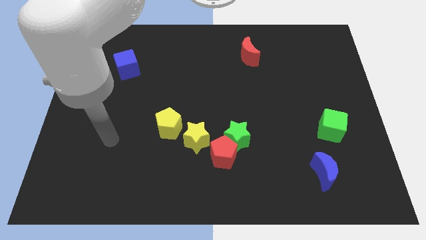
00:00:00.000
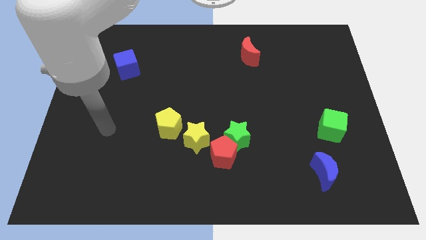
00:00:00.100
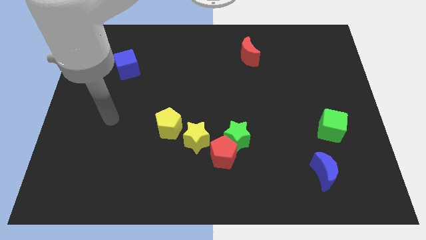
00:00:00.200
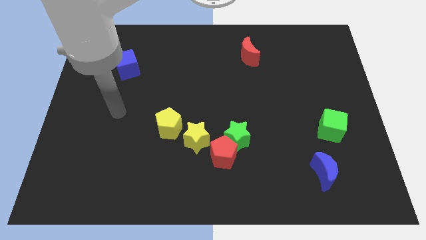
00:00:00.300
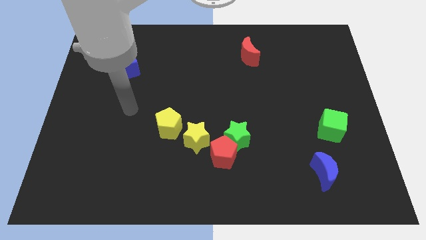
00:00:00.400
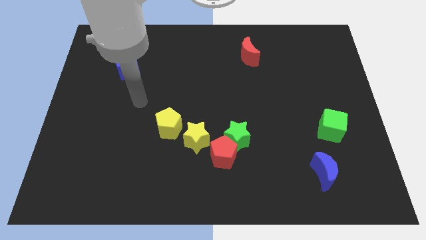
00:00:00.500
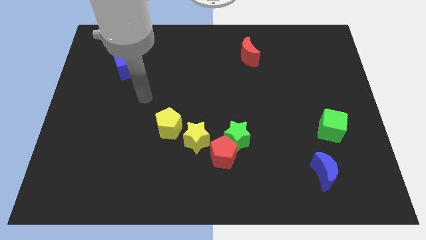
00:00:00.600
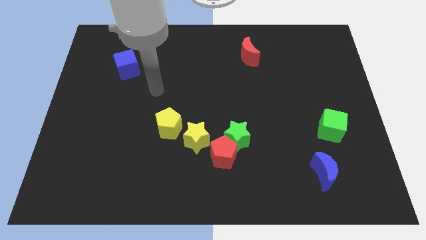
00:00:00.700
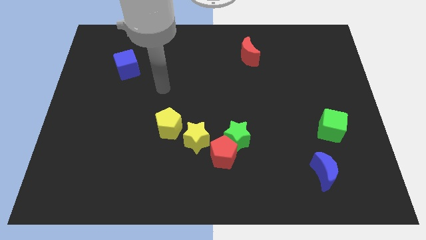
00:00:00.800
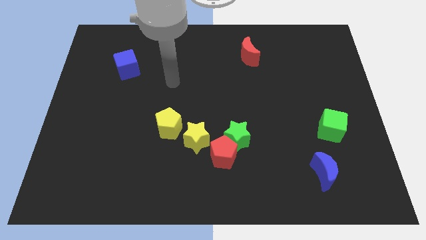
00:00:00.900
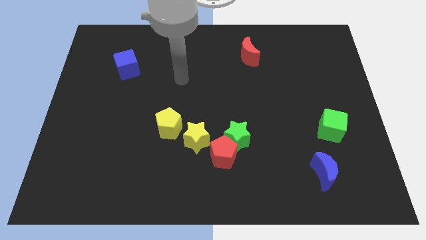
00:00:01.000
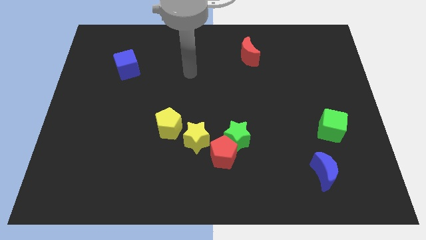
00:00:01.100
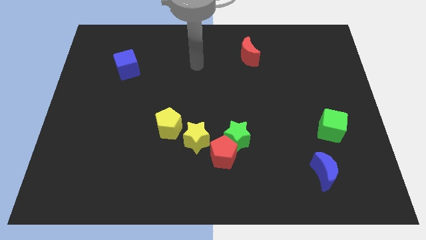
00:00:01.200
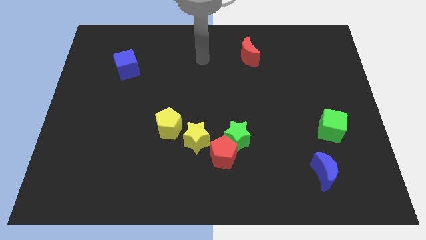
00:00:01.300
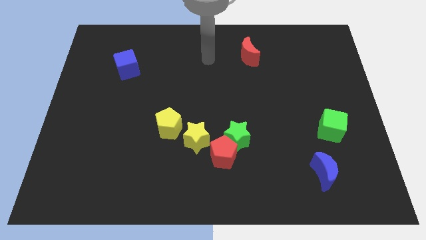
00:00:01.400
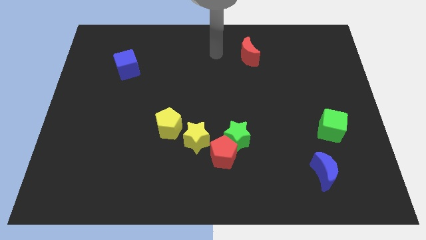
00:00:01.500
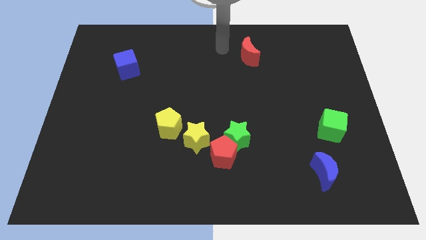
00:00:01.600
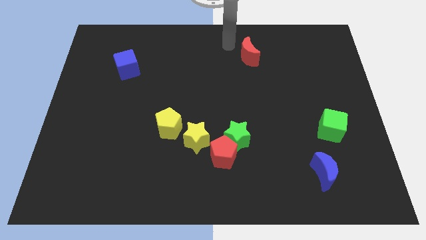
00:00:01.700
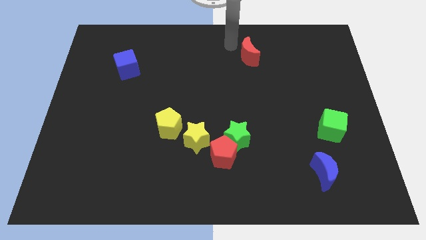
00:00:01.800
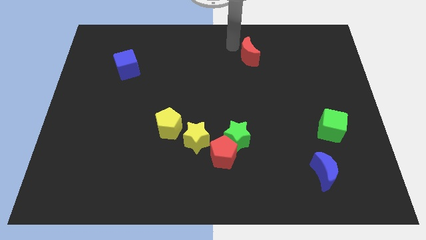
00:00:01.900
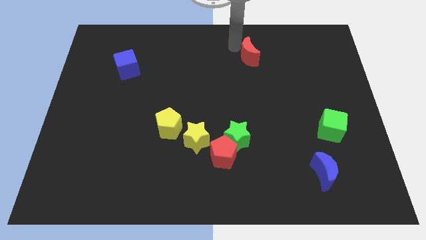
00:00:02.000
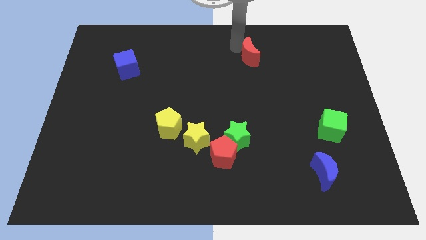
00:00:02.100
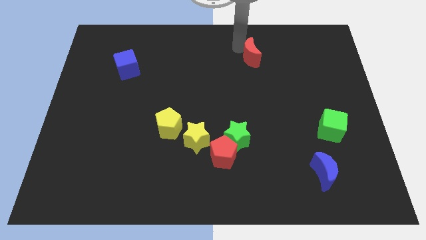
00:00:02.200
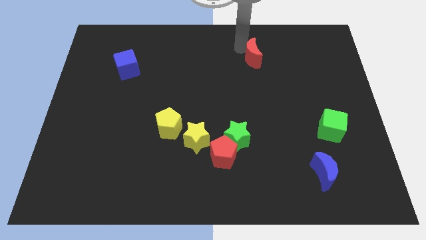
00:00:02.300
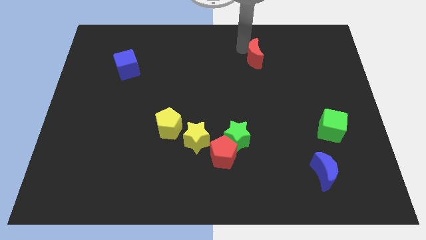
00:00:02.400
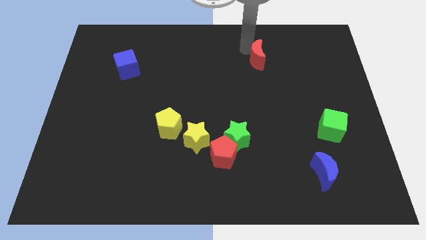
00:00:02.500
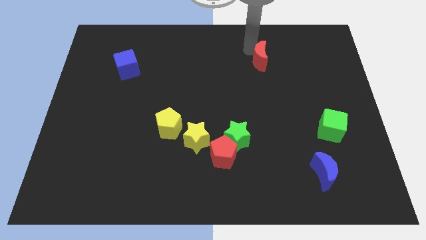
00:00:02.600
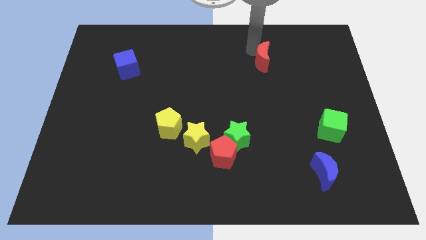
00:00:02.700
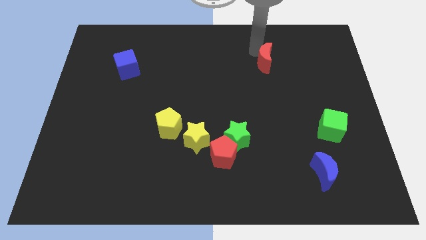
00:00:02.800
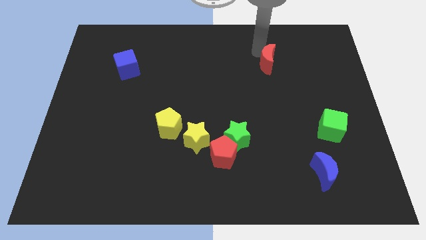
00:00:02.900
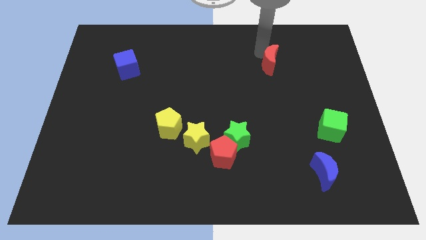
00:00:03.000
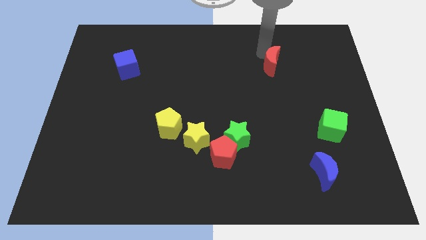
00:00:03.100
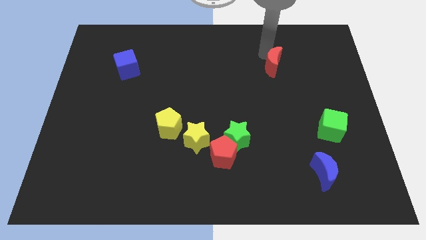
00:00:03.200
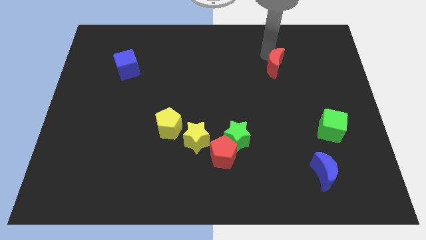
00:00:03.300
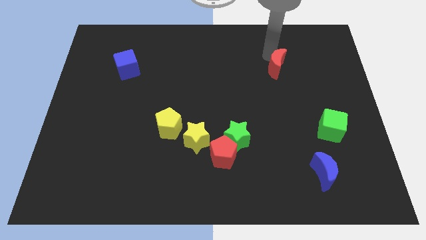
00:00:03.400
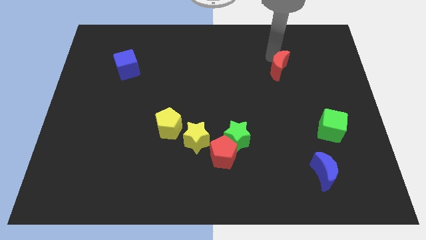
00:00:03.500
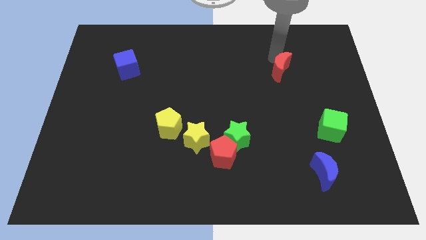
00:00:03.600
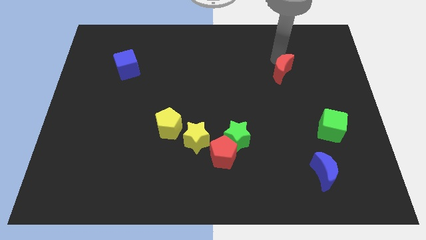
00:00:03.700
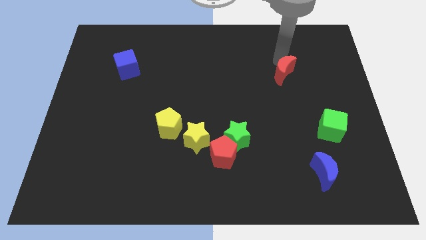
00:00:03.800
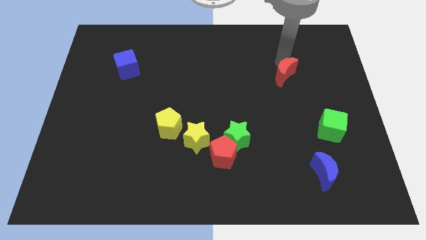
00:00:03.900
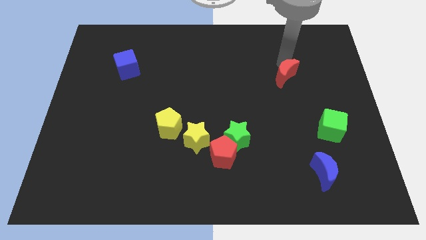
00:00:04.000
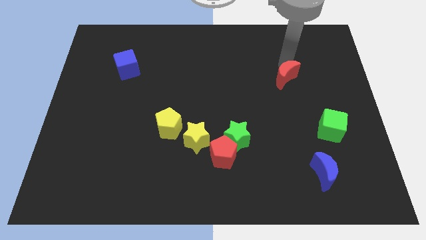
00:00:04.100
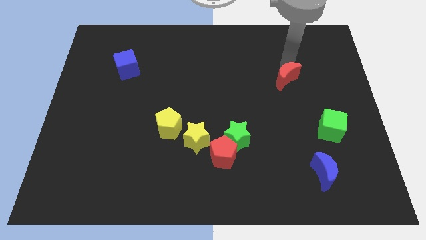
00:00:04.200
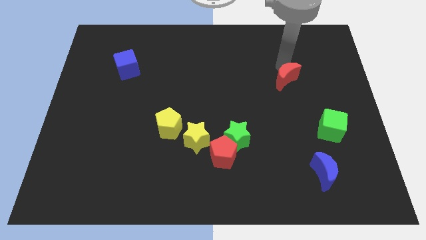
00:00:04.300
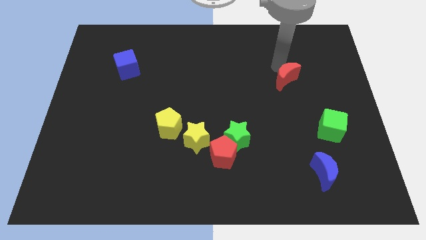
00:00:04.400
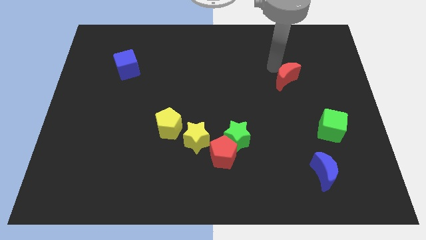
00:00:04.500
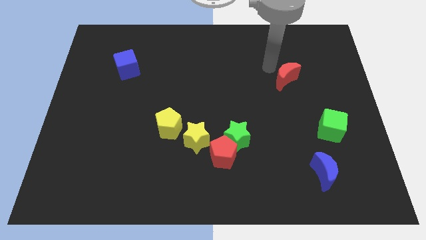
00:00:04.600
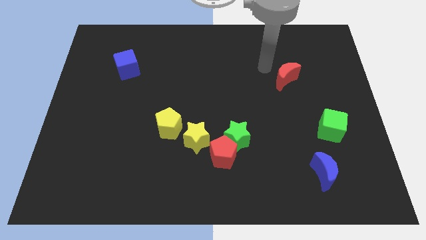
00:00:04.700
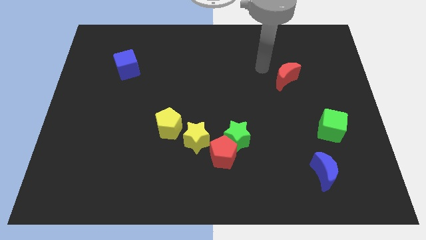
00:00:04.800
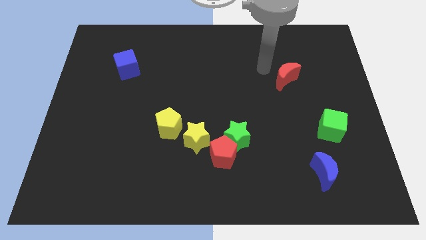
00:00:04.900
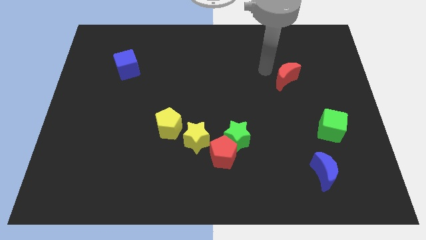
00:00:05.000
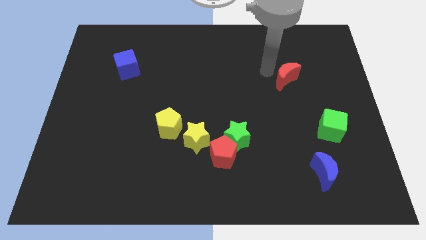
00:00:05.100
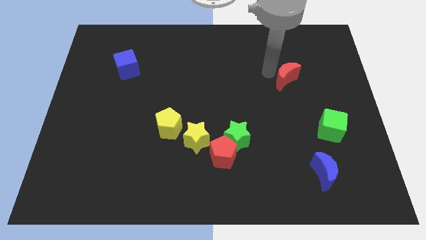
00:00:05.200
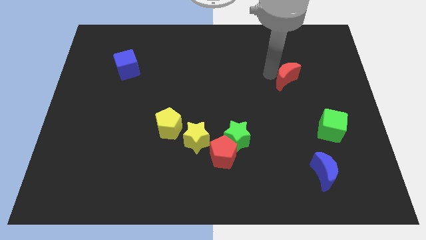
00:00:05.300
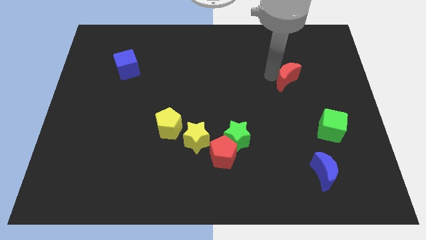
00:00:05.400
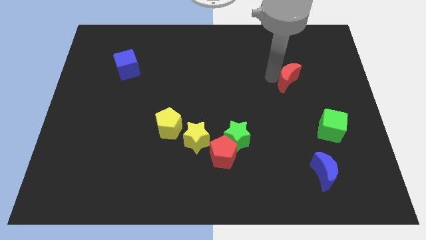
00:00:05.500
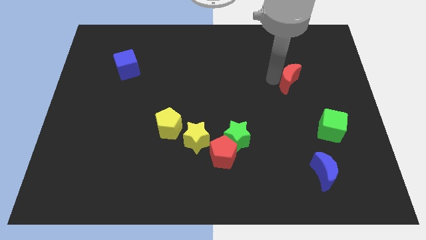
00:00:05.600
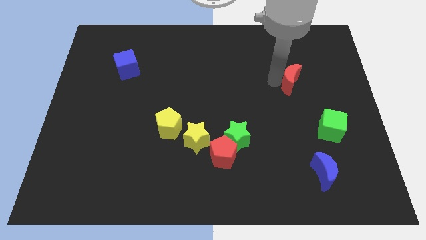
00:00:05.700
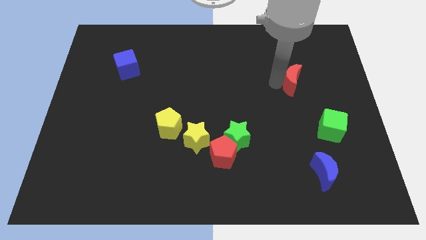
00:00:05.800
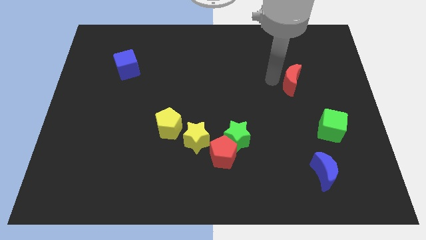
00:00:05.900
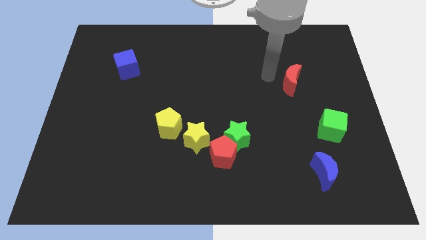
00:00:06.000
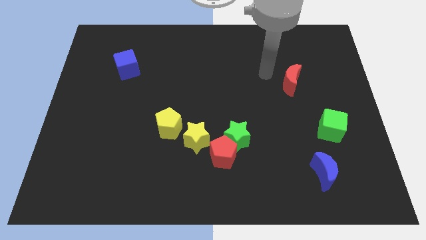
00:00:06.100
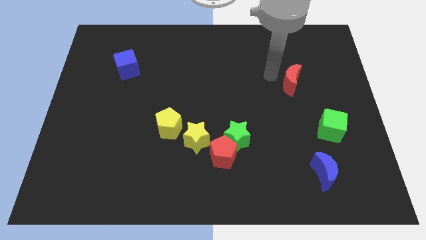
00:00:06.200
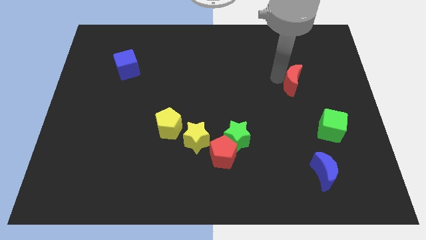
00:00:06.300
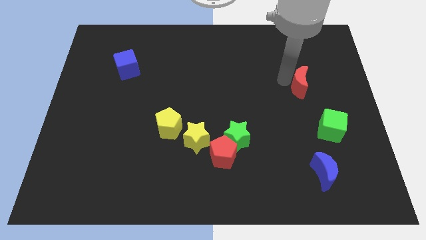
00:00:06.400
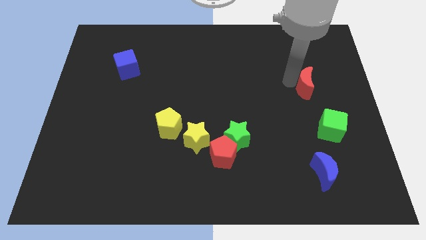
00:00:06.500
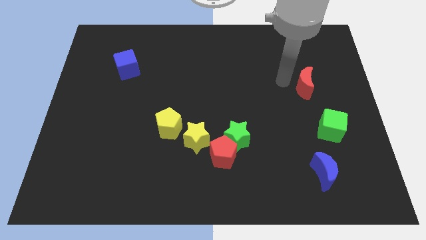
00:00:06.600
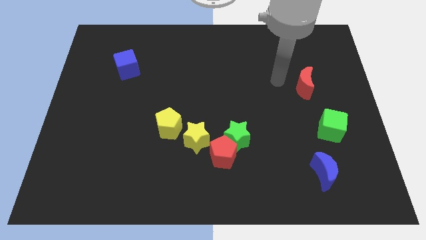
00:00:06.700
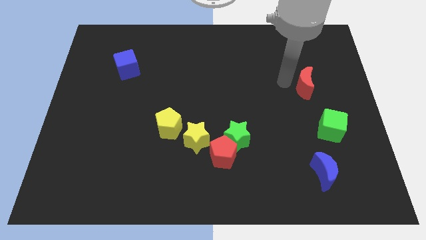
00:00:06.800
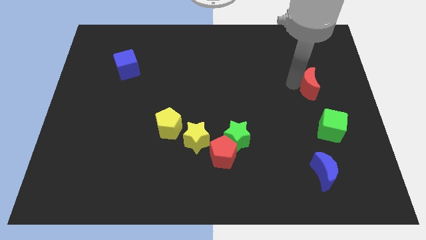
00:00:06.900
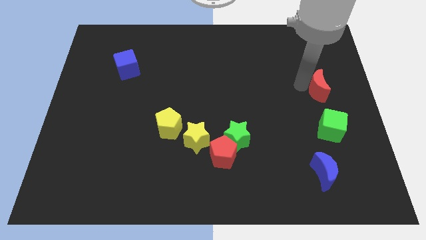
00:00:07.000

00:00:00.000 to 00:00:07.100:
push the red moon to the center right
